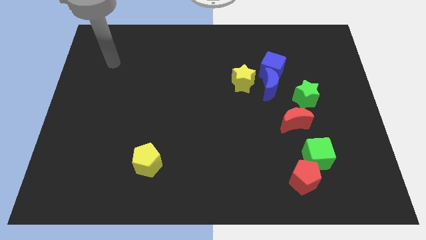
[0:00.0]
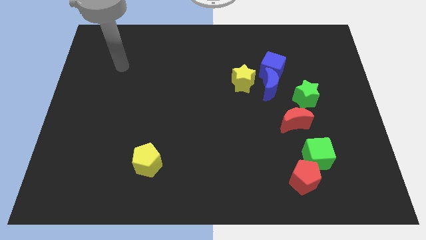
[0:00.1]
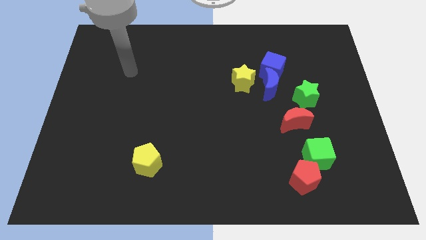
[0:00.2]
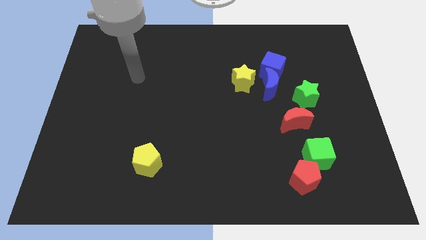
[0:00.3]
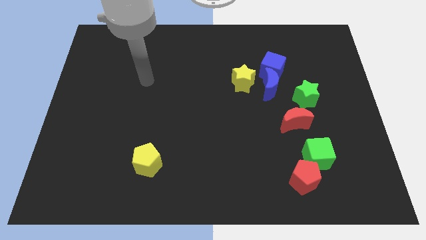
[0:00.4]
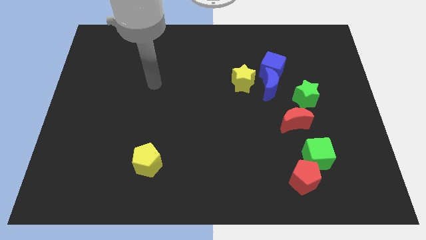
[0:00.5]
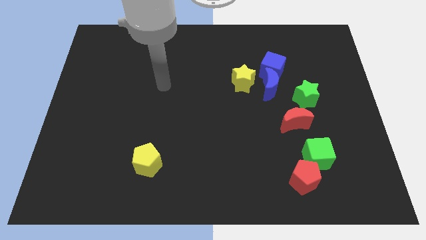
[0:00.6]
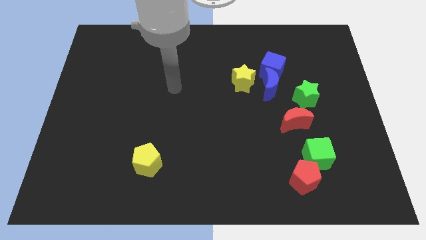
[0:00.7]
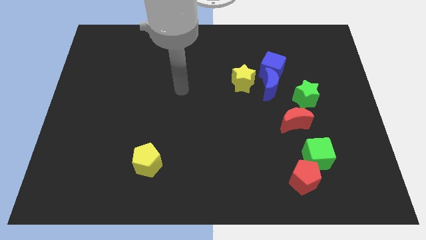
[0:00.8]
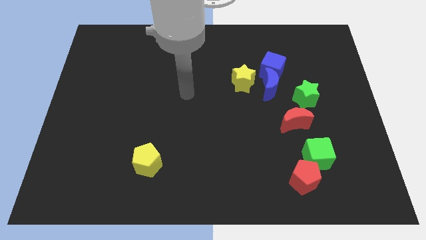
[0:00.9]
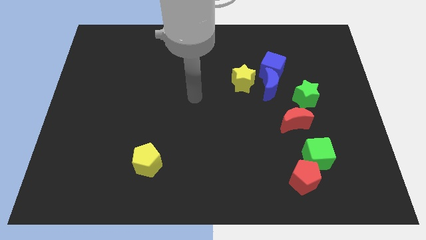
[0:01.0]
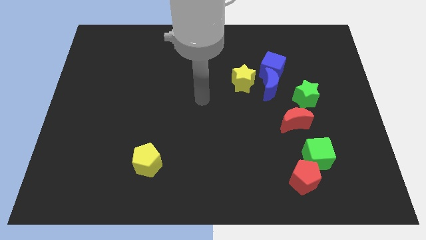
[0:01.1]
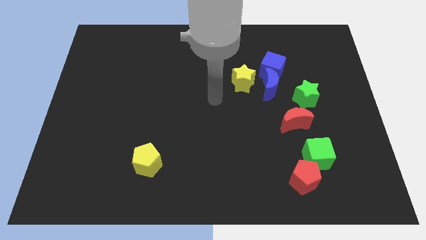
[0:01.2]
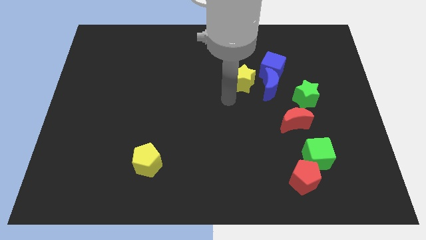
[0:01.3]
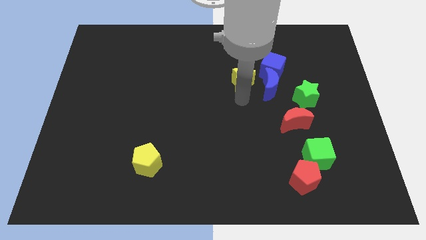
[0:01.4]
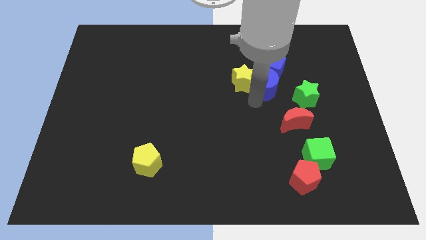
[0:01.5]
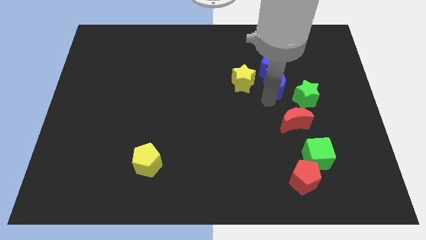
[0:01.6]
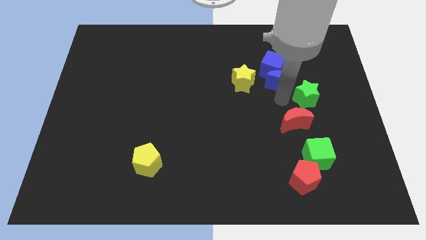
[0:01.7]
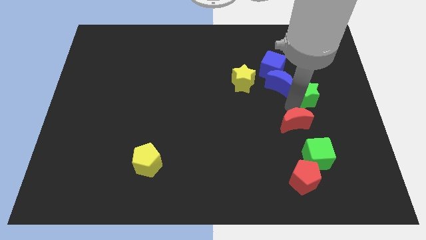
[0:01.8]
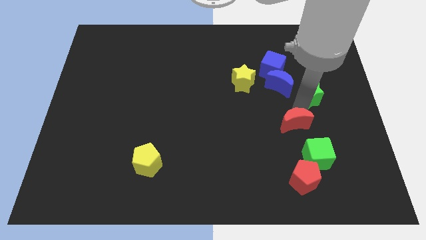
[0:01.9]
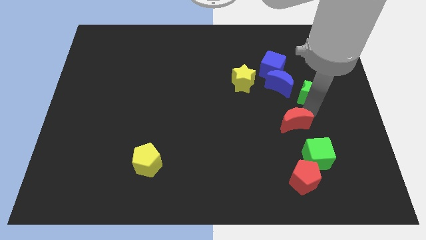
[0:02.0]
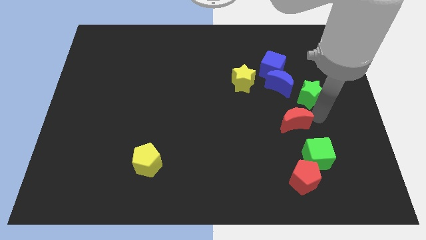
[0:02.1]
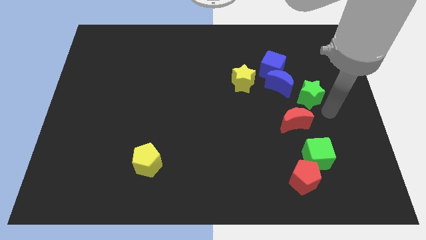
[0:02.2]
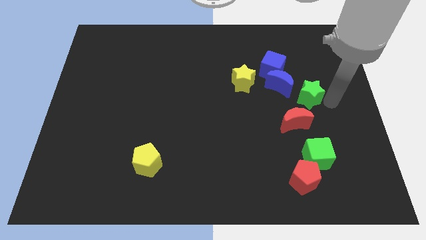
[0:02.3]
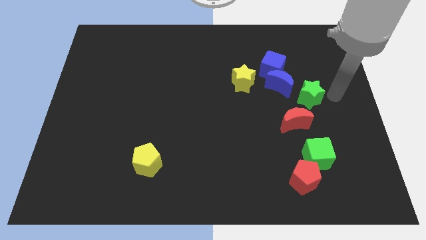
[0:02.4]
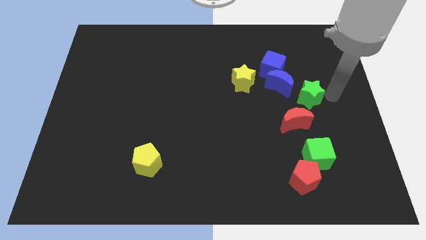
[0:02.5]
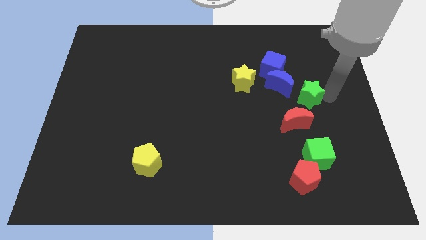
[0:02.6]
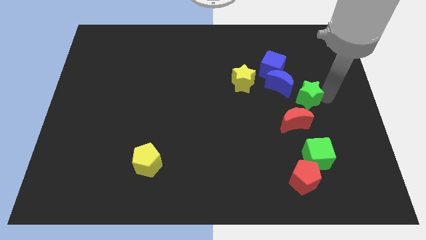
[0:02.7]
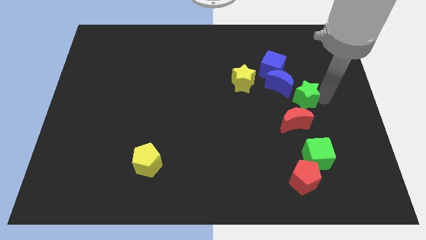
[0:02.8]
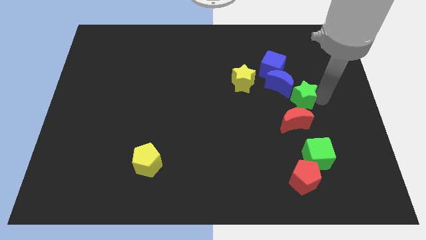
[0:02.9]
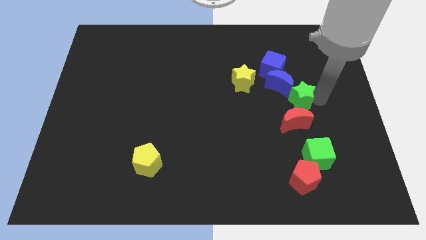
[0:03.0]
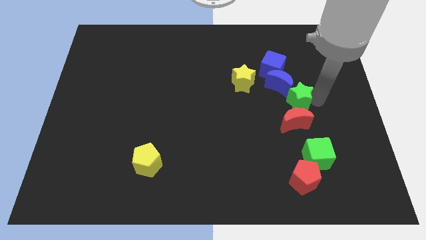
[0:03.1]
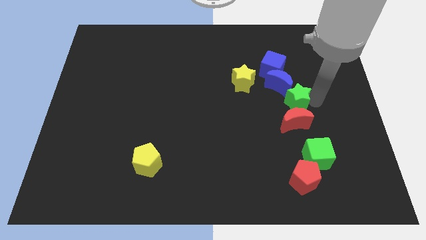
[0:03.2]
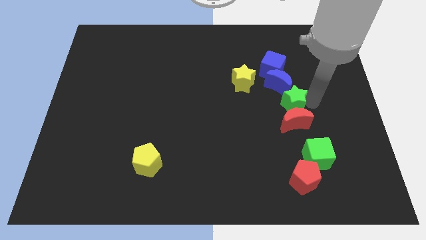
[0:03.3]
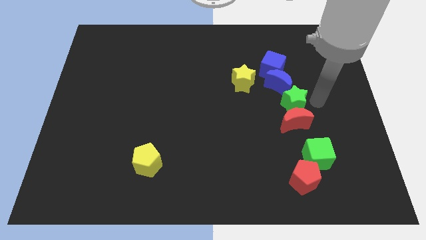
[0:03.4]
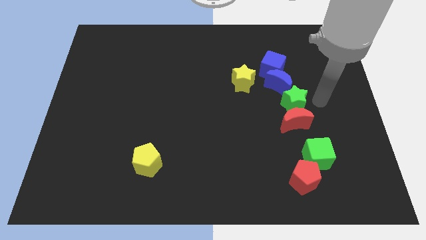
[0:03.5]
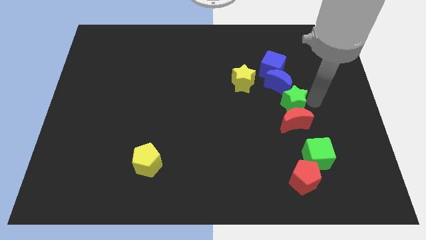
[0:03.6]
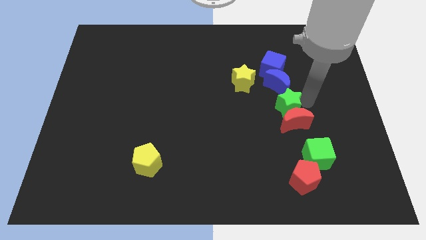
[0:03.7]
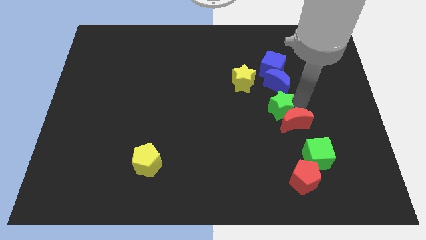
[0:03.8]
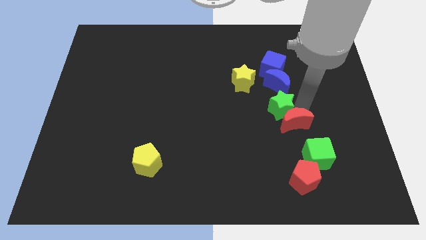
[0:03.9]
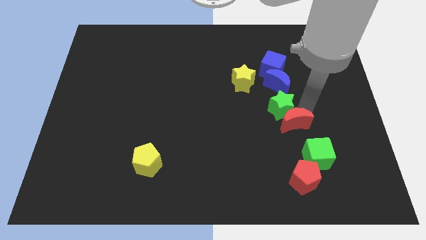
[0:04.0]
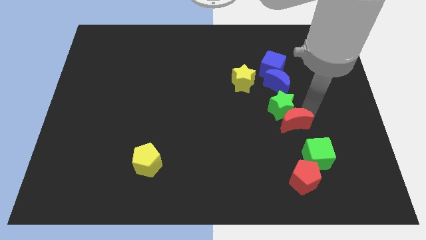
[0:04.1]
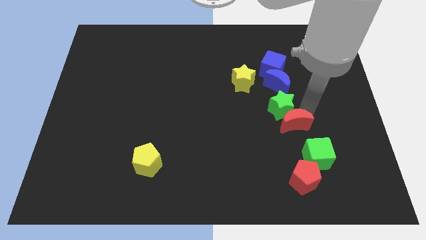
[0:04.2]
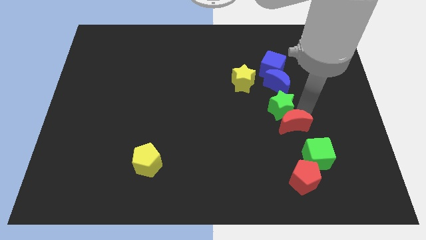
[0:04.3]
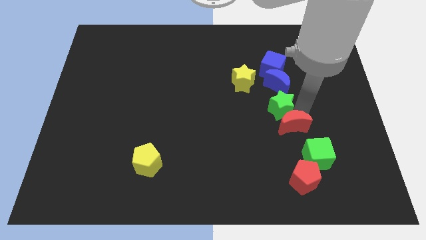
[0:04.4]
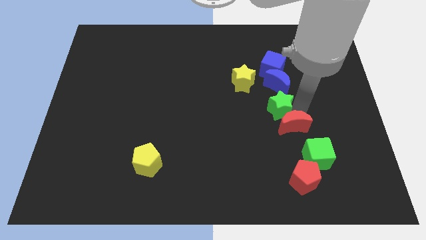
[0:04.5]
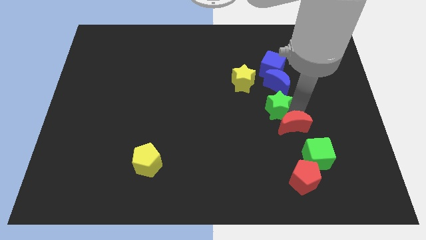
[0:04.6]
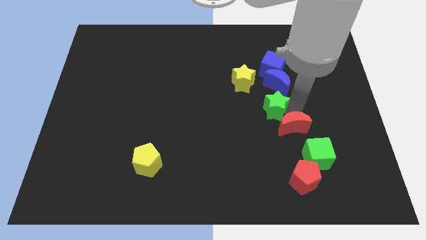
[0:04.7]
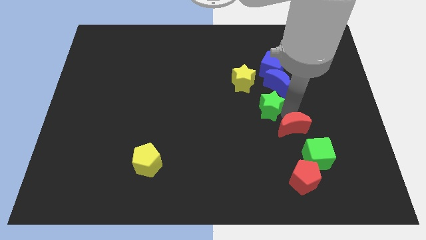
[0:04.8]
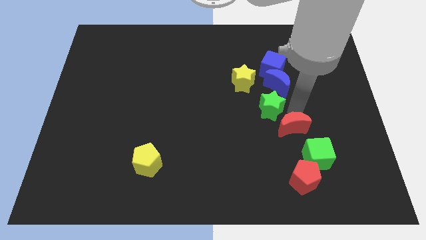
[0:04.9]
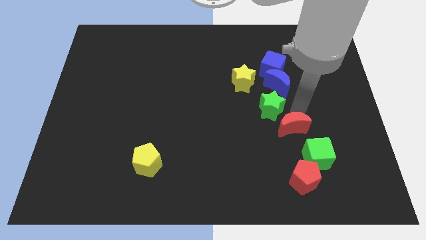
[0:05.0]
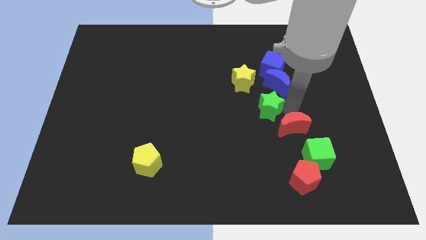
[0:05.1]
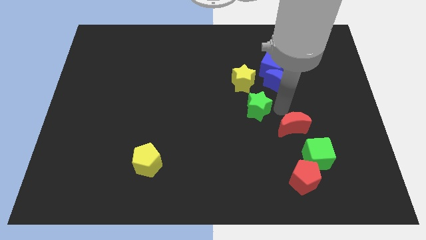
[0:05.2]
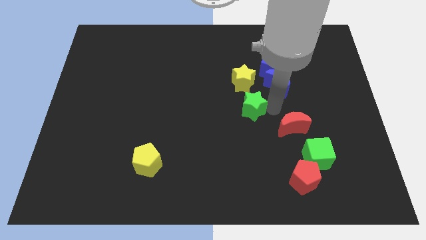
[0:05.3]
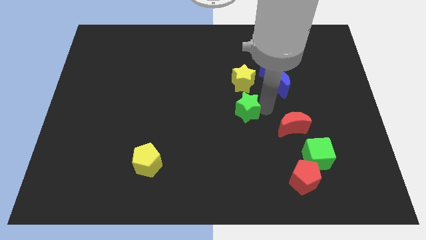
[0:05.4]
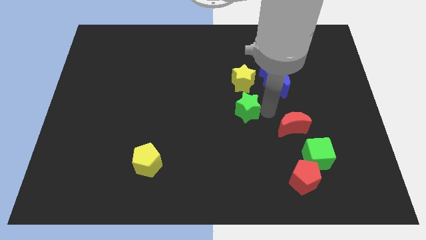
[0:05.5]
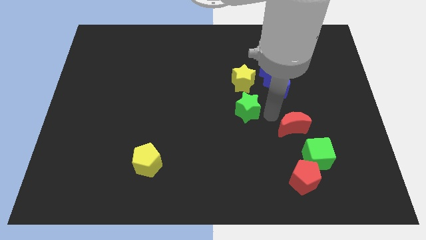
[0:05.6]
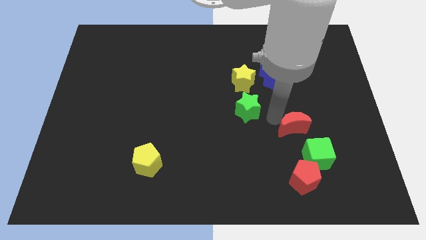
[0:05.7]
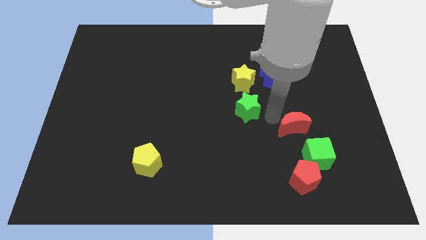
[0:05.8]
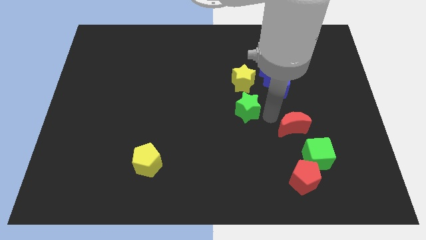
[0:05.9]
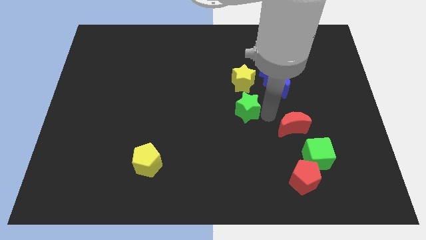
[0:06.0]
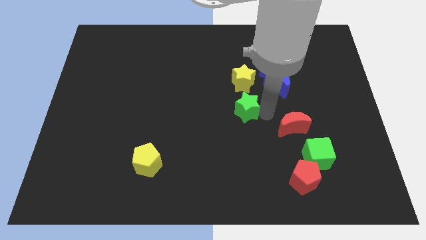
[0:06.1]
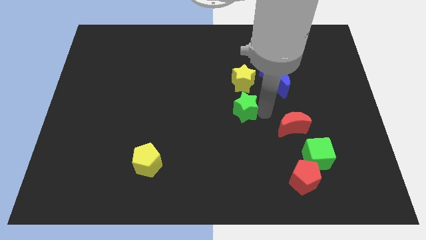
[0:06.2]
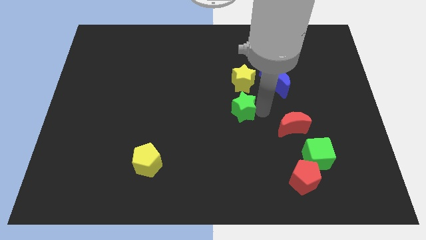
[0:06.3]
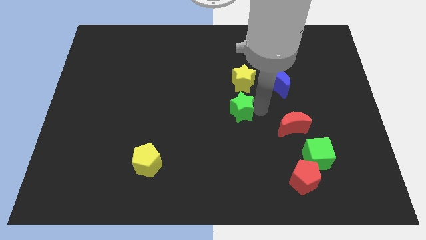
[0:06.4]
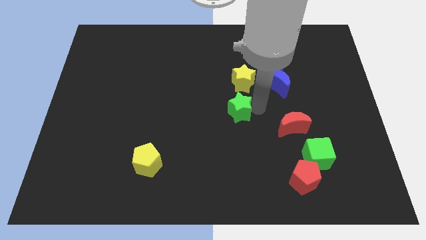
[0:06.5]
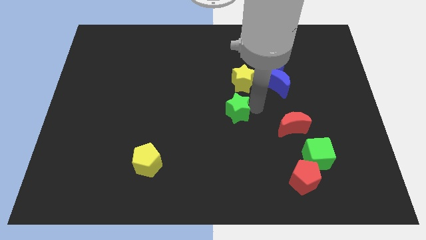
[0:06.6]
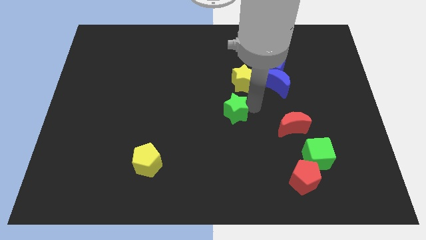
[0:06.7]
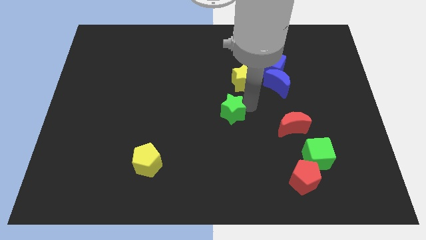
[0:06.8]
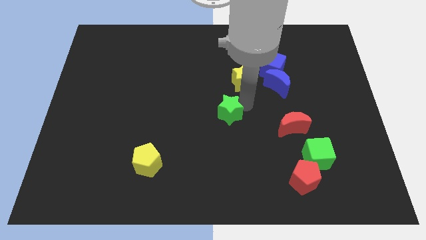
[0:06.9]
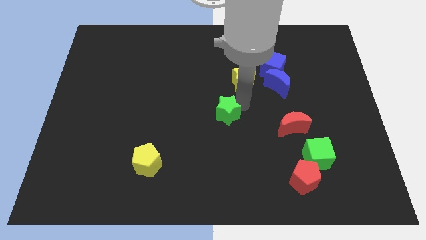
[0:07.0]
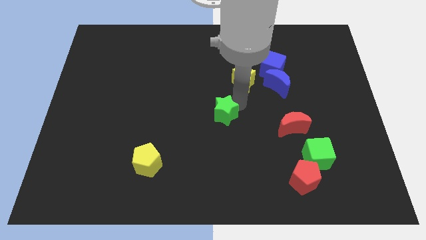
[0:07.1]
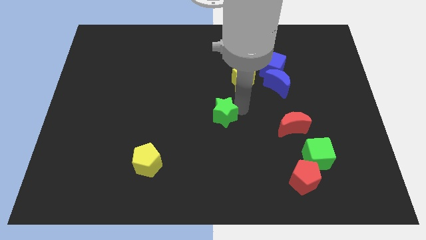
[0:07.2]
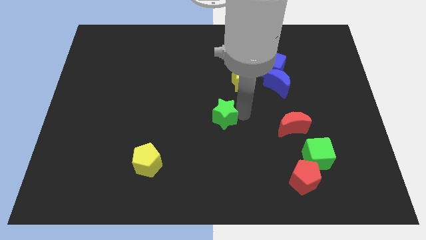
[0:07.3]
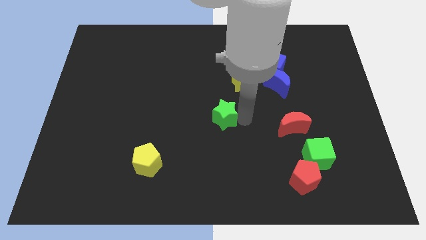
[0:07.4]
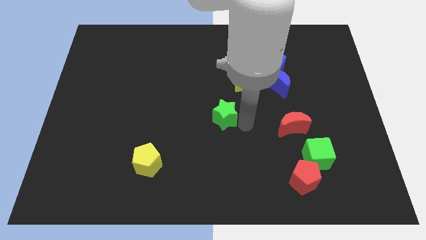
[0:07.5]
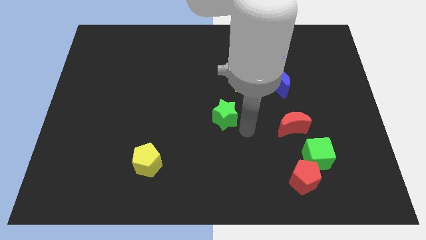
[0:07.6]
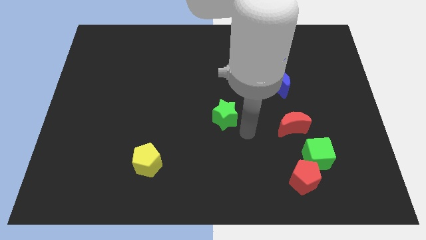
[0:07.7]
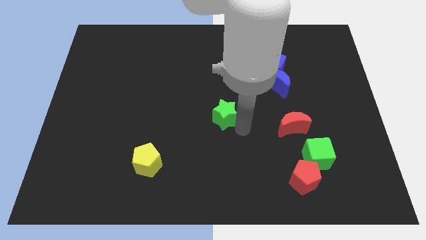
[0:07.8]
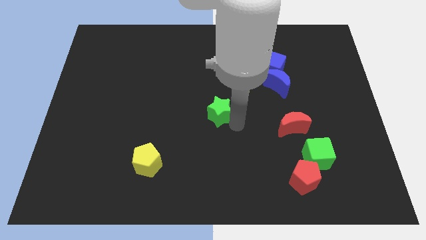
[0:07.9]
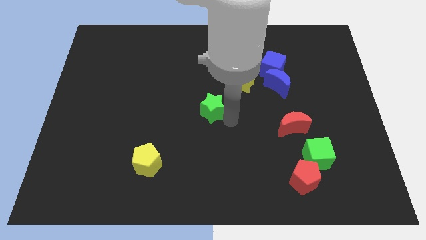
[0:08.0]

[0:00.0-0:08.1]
slide the green star left
